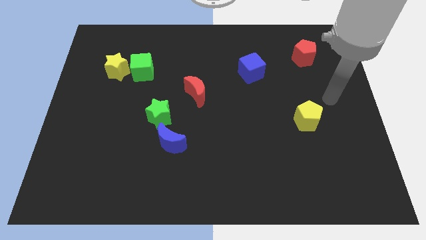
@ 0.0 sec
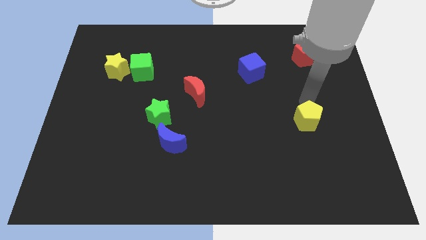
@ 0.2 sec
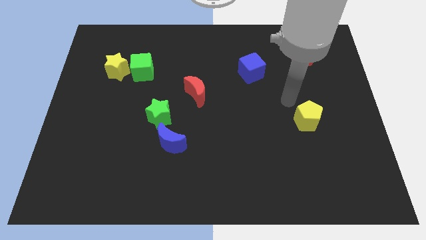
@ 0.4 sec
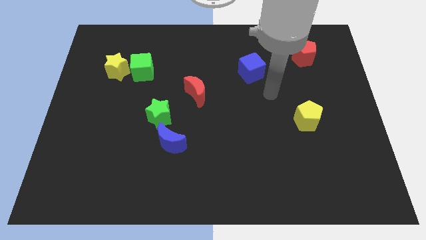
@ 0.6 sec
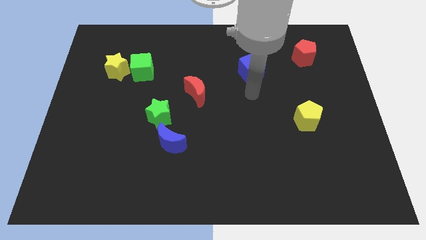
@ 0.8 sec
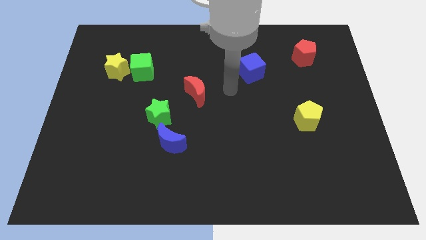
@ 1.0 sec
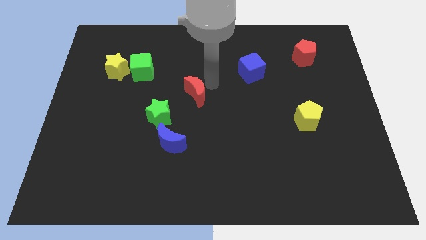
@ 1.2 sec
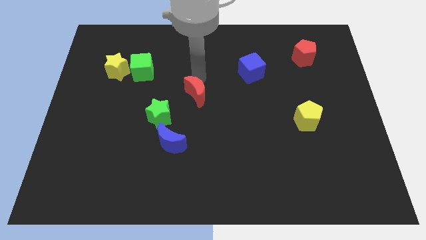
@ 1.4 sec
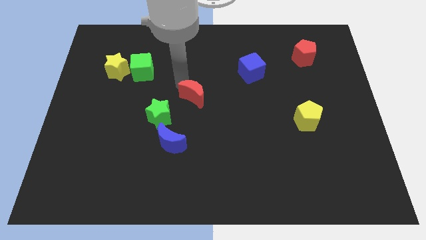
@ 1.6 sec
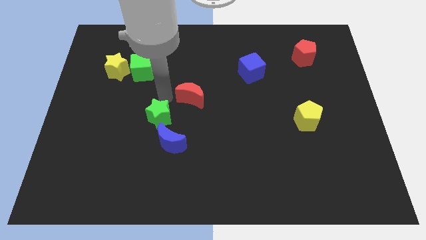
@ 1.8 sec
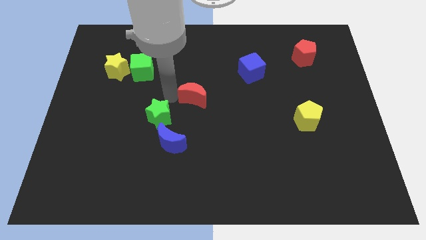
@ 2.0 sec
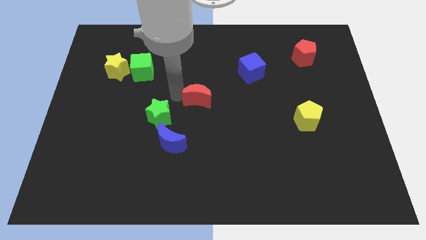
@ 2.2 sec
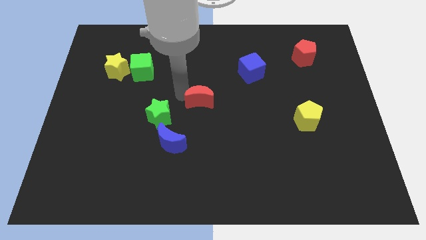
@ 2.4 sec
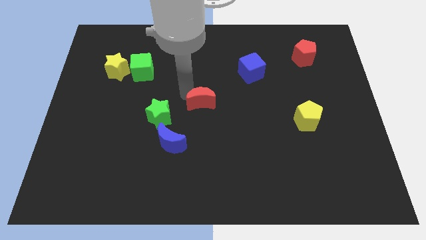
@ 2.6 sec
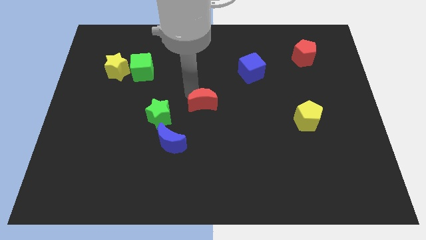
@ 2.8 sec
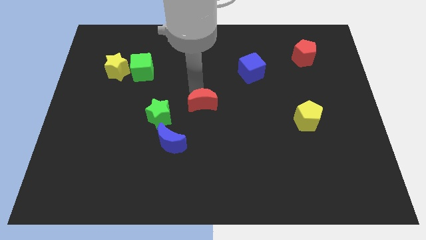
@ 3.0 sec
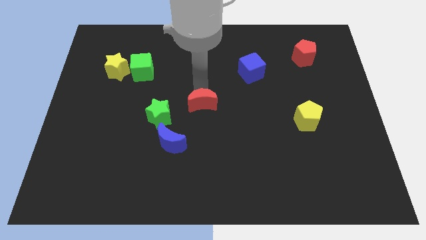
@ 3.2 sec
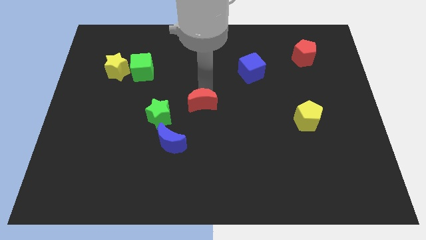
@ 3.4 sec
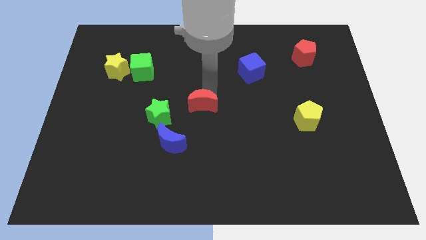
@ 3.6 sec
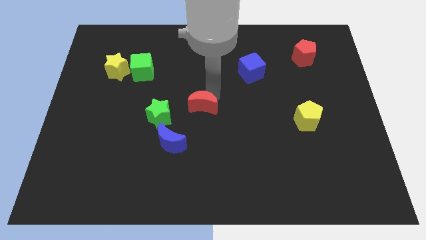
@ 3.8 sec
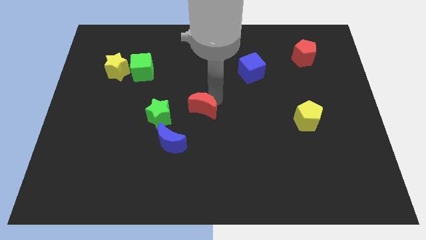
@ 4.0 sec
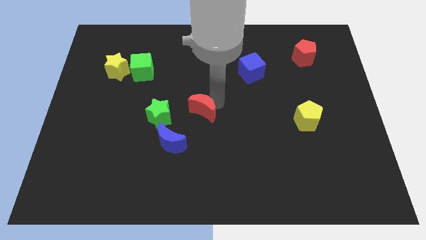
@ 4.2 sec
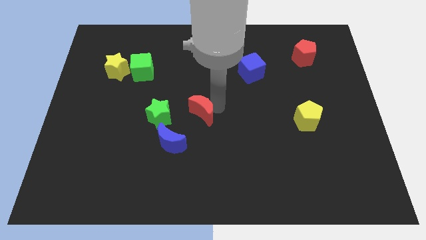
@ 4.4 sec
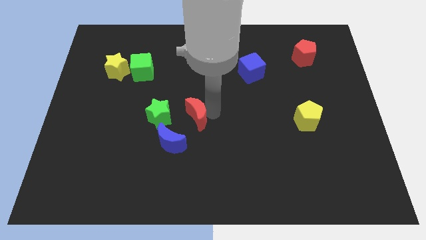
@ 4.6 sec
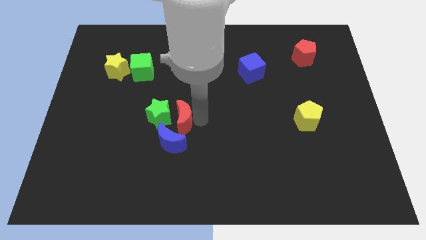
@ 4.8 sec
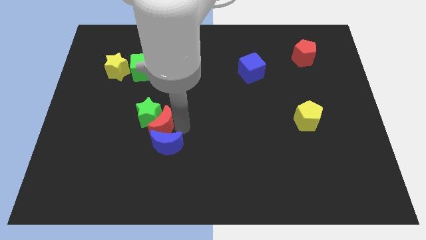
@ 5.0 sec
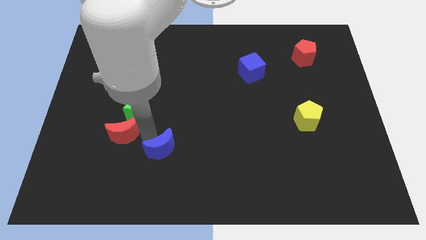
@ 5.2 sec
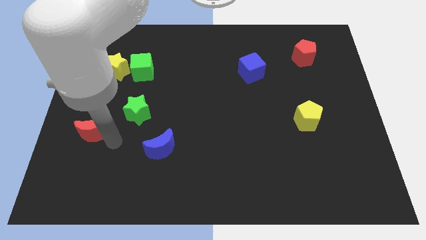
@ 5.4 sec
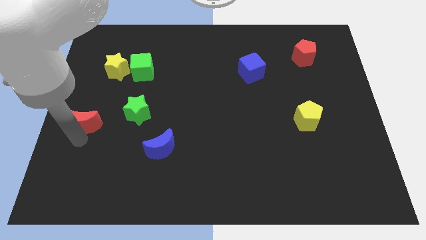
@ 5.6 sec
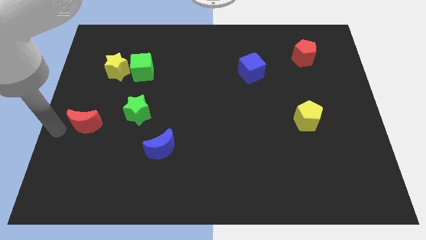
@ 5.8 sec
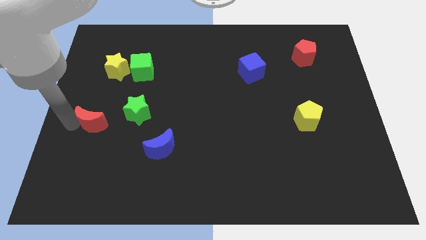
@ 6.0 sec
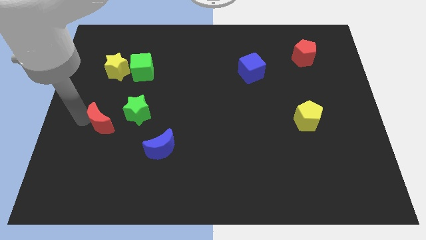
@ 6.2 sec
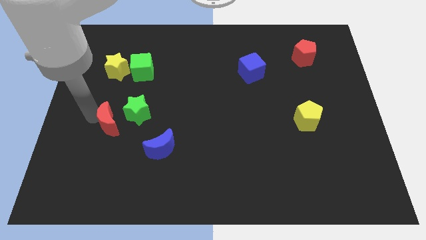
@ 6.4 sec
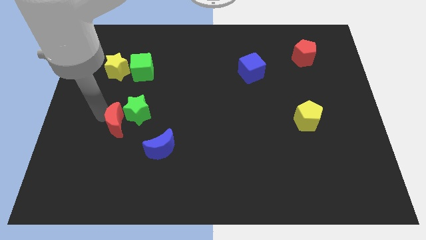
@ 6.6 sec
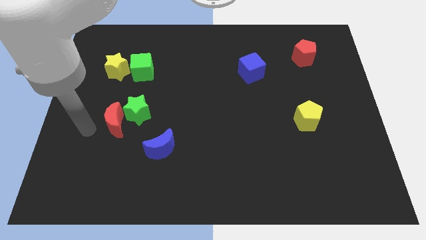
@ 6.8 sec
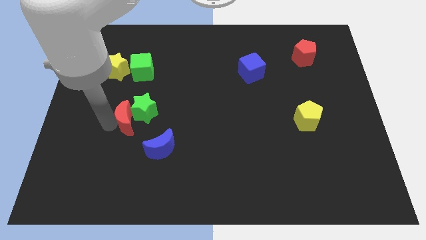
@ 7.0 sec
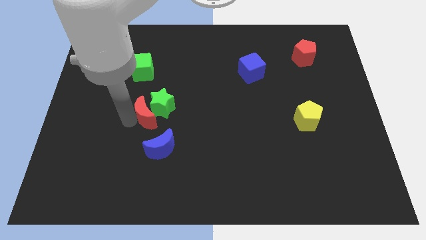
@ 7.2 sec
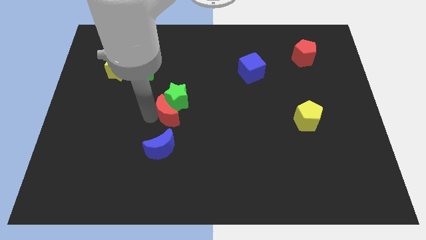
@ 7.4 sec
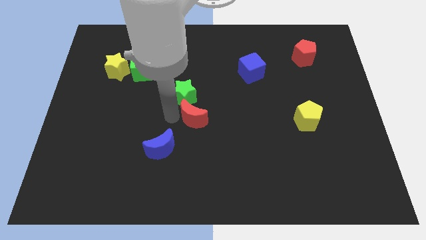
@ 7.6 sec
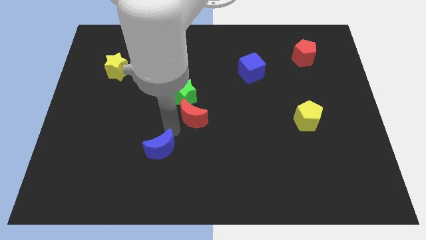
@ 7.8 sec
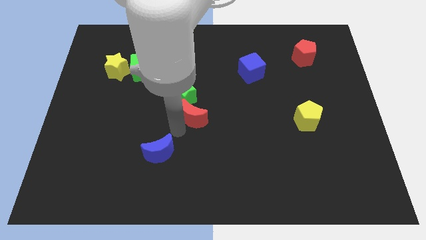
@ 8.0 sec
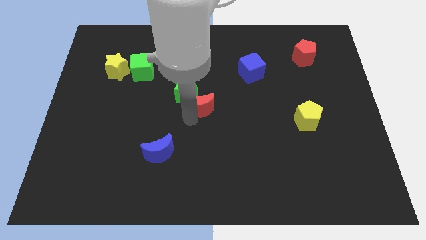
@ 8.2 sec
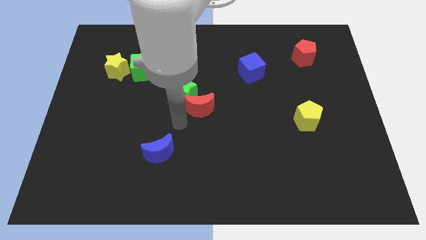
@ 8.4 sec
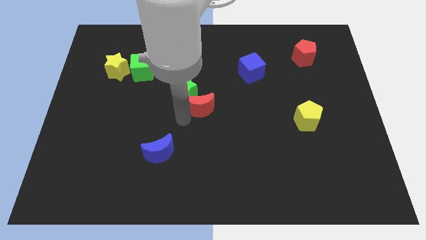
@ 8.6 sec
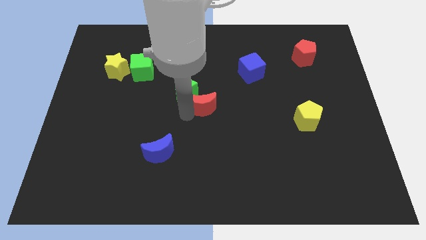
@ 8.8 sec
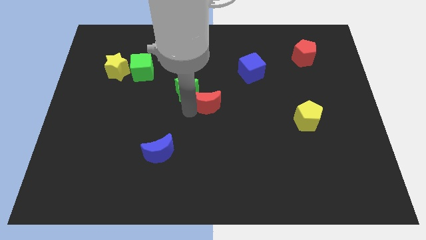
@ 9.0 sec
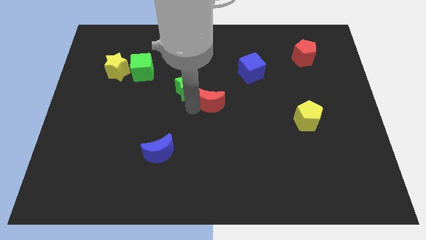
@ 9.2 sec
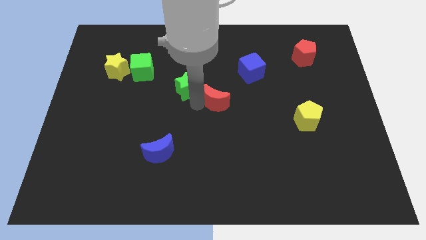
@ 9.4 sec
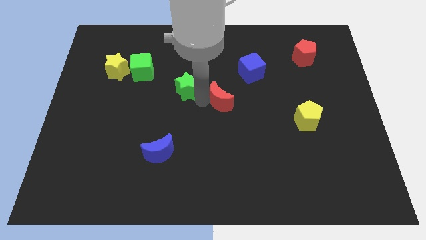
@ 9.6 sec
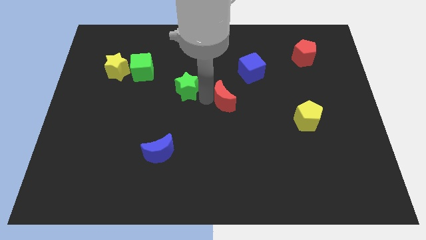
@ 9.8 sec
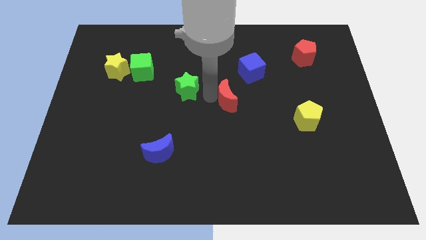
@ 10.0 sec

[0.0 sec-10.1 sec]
move the red moon right slightly

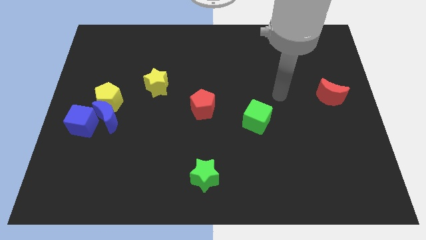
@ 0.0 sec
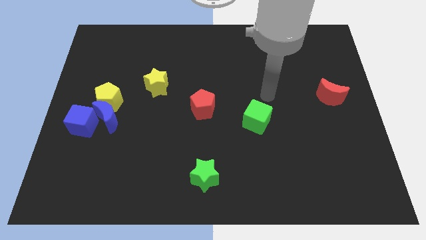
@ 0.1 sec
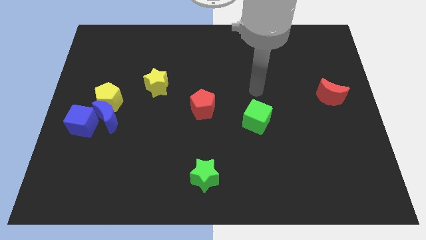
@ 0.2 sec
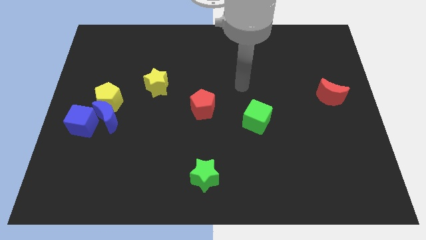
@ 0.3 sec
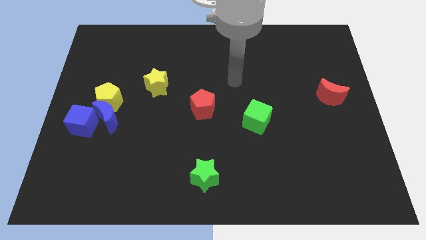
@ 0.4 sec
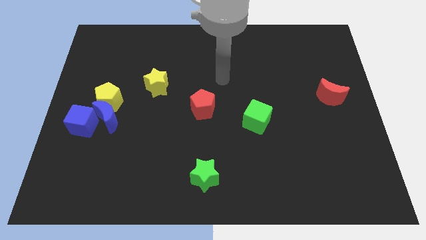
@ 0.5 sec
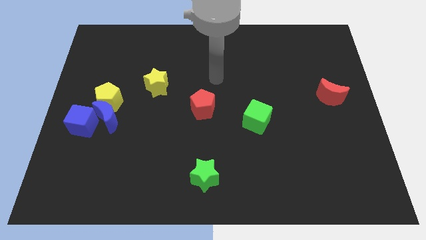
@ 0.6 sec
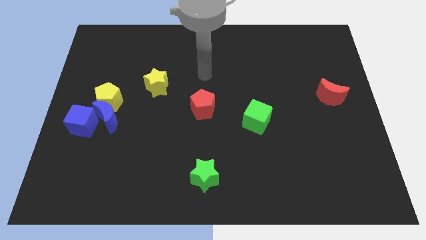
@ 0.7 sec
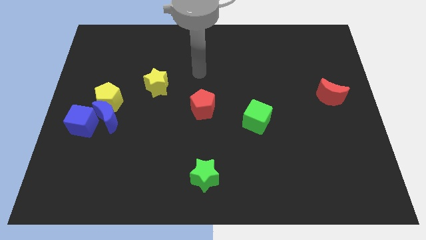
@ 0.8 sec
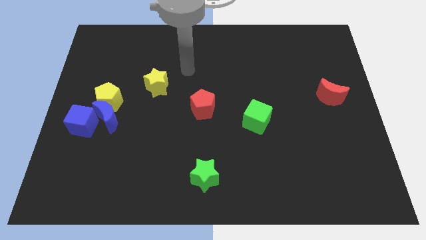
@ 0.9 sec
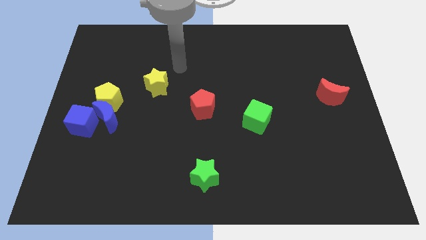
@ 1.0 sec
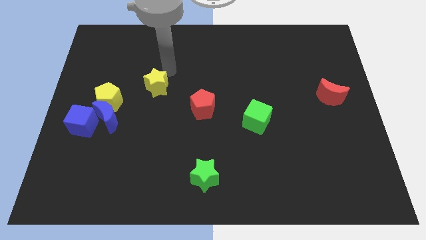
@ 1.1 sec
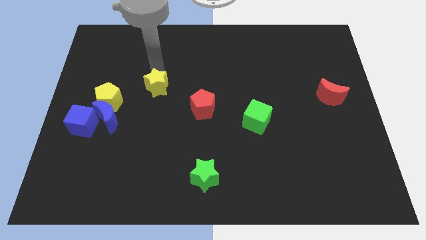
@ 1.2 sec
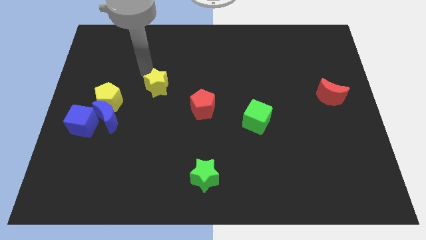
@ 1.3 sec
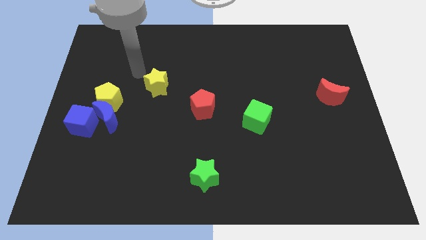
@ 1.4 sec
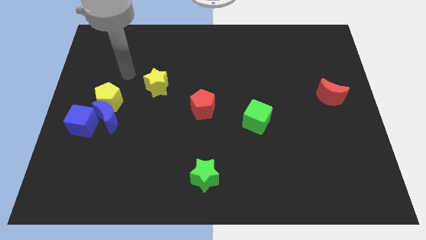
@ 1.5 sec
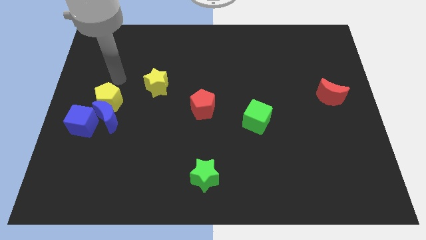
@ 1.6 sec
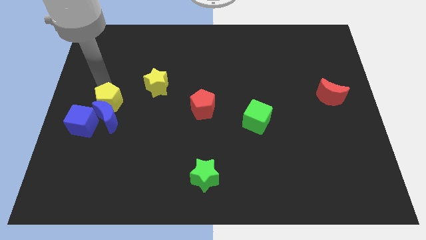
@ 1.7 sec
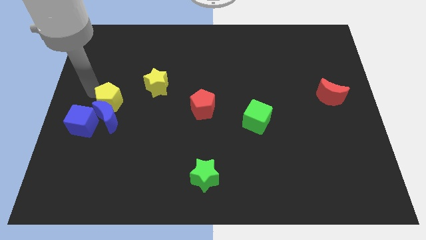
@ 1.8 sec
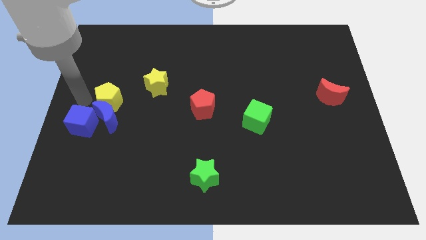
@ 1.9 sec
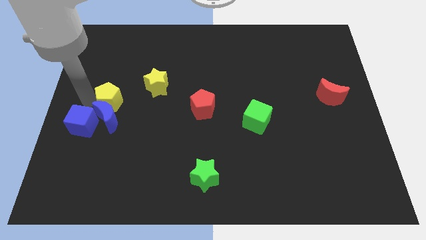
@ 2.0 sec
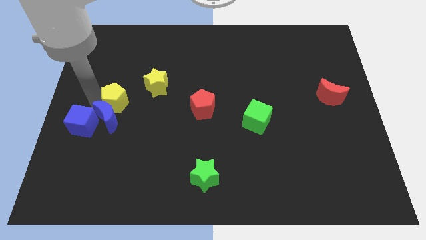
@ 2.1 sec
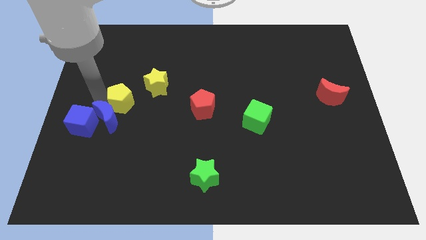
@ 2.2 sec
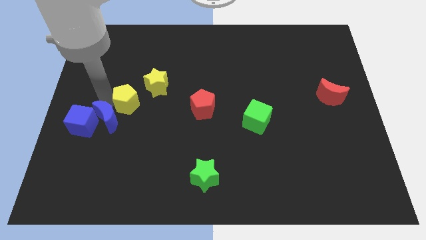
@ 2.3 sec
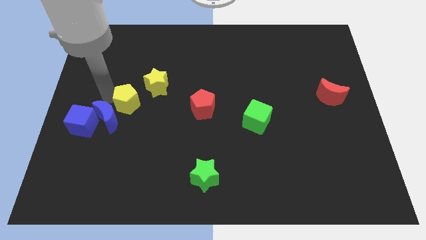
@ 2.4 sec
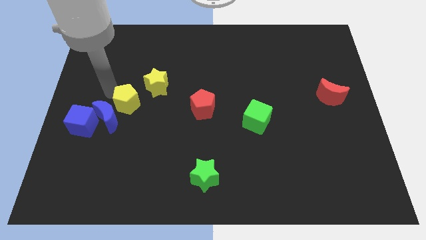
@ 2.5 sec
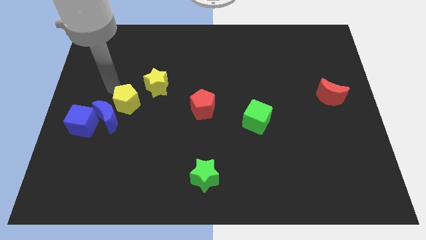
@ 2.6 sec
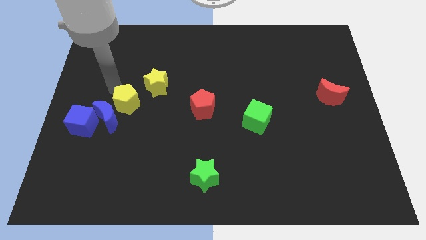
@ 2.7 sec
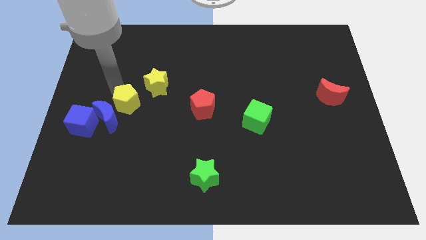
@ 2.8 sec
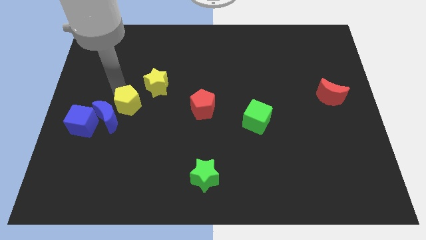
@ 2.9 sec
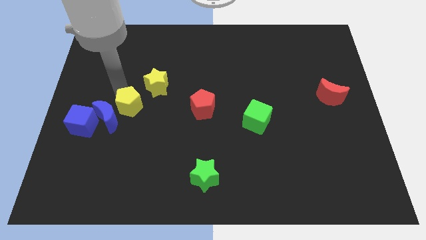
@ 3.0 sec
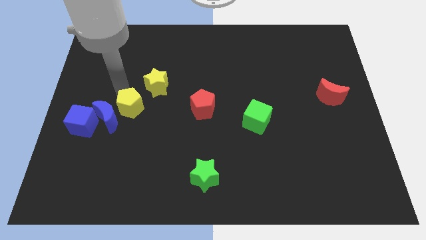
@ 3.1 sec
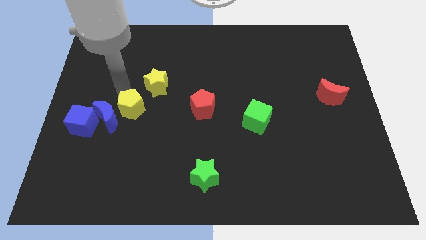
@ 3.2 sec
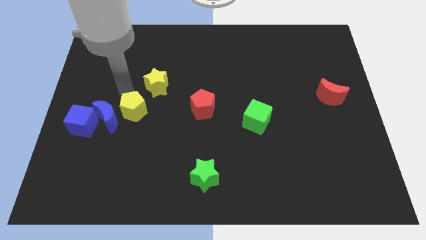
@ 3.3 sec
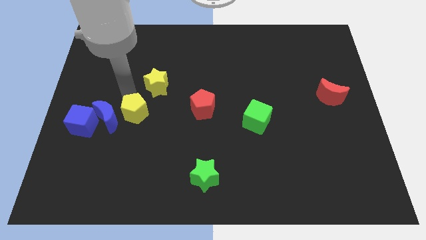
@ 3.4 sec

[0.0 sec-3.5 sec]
move the yellow pentagon a bit downwards and then right
